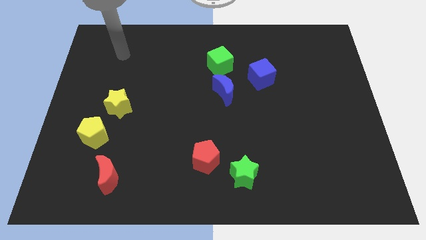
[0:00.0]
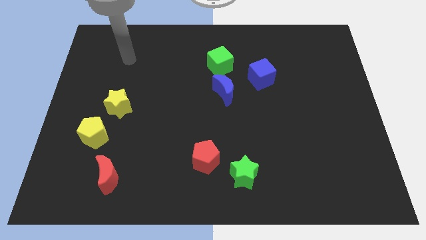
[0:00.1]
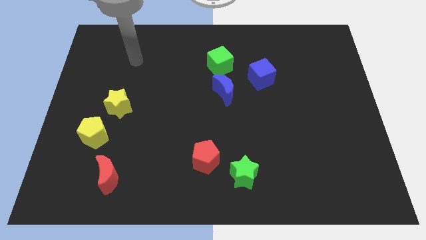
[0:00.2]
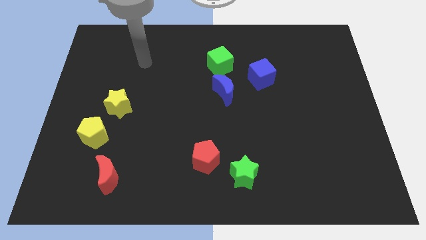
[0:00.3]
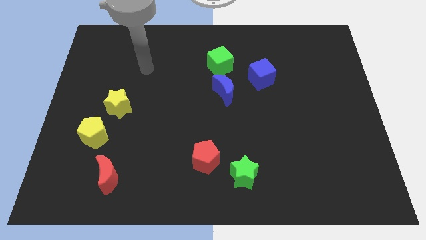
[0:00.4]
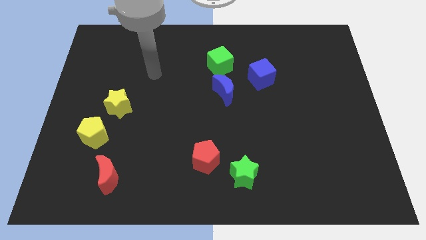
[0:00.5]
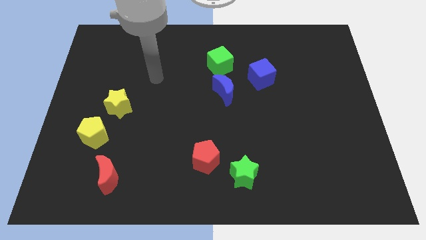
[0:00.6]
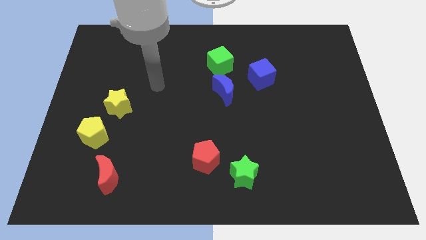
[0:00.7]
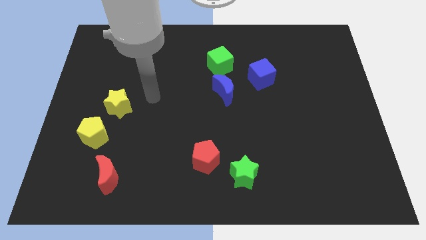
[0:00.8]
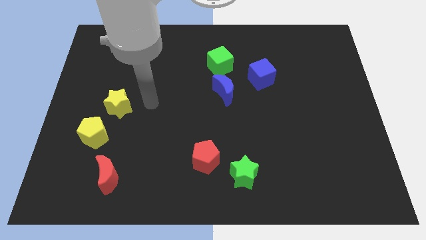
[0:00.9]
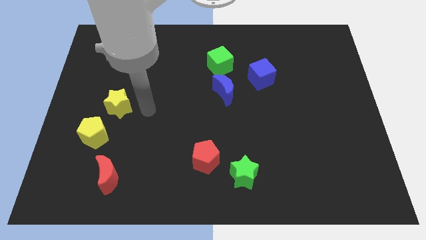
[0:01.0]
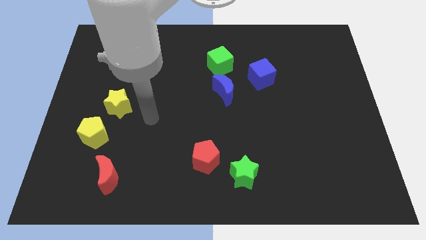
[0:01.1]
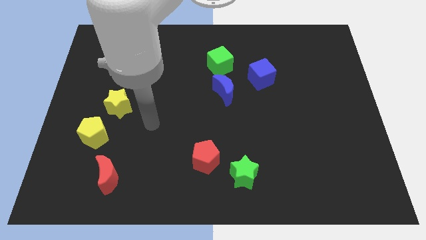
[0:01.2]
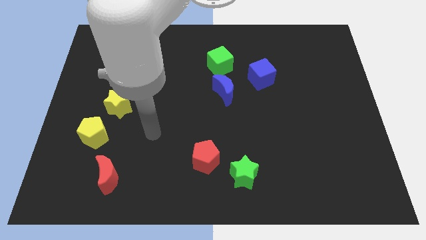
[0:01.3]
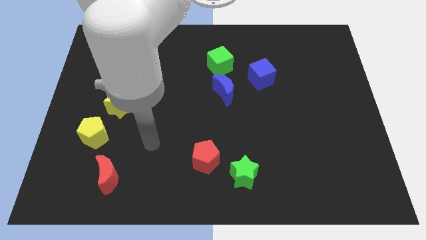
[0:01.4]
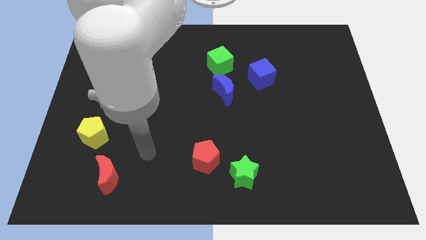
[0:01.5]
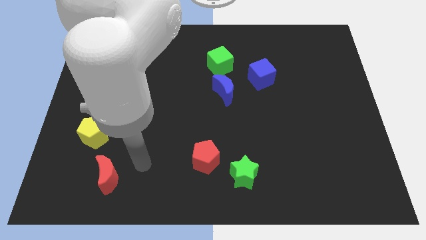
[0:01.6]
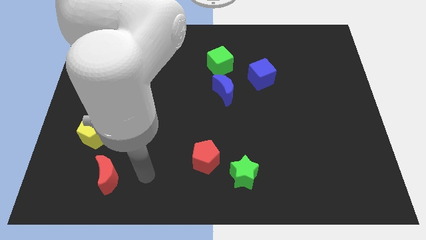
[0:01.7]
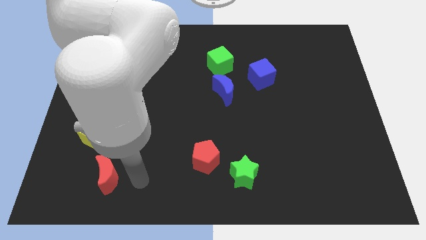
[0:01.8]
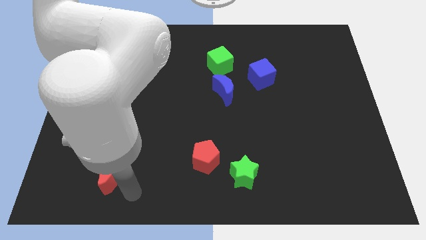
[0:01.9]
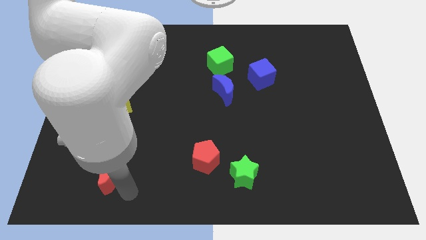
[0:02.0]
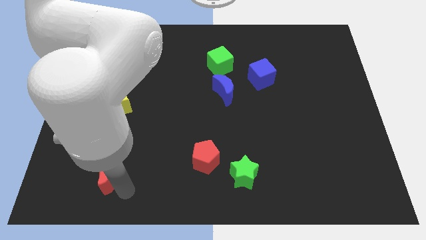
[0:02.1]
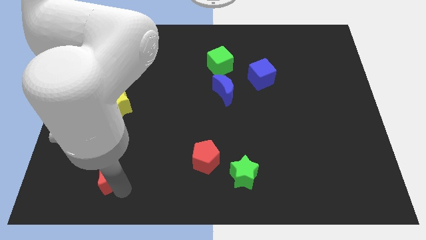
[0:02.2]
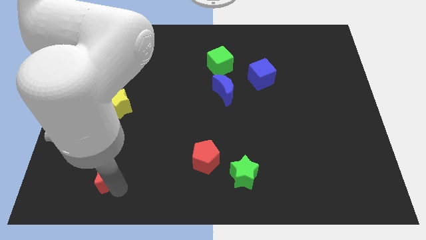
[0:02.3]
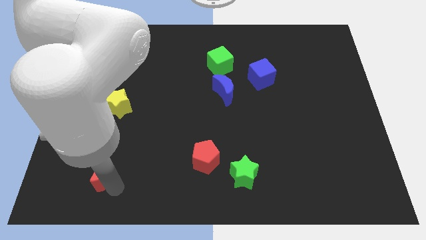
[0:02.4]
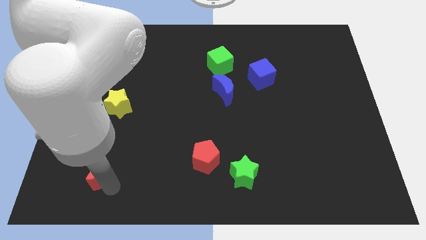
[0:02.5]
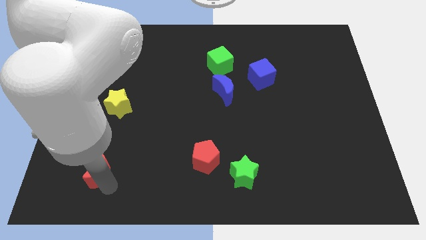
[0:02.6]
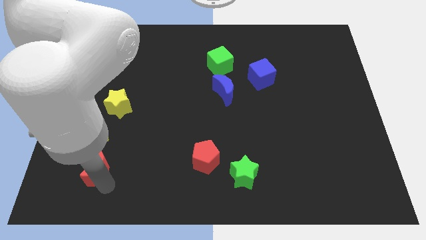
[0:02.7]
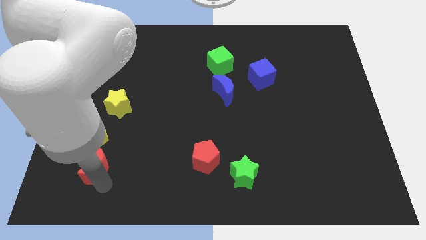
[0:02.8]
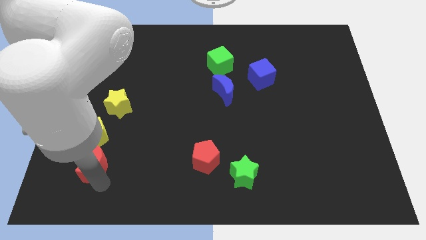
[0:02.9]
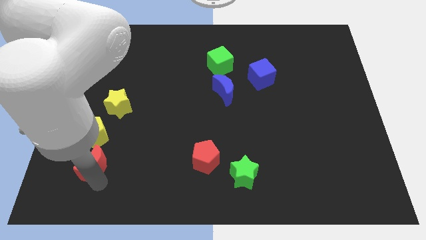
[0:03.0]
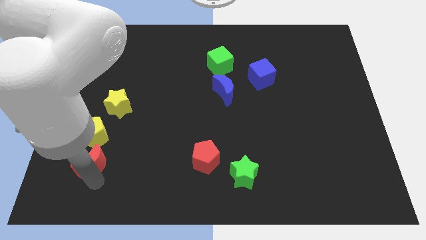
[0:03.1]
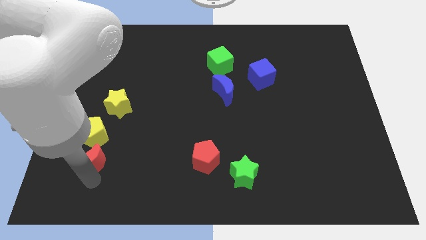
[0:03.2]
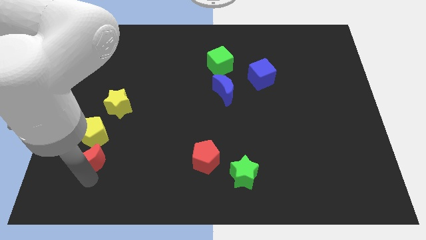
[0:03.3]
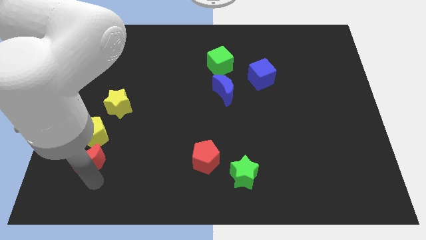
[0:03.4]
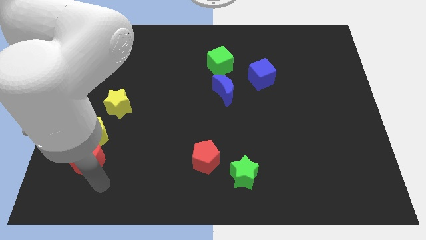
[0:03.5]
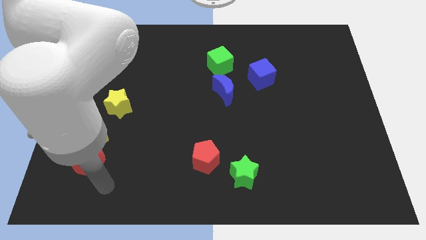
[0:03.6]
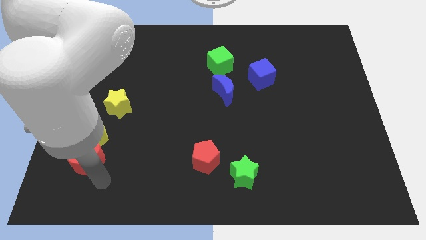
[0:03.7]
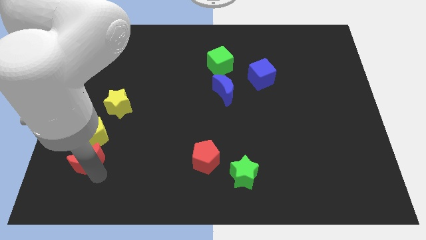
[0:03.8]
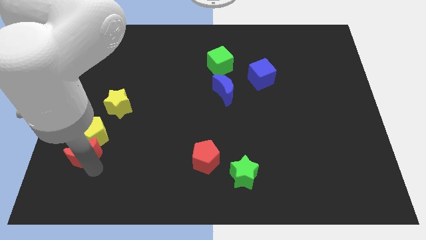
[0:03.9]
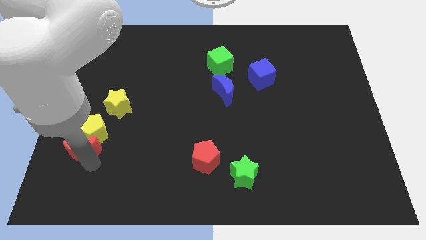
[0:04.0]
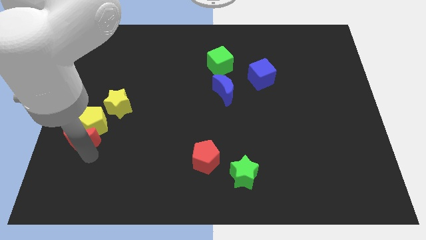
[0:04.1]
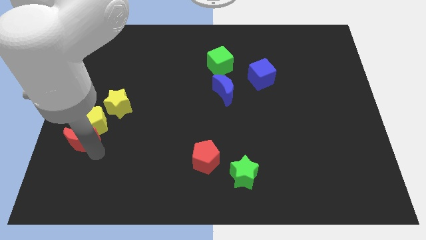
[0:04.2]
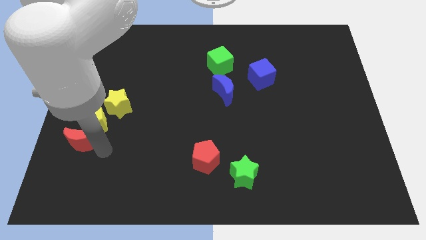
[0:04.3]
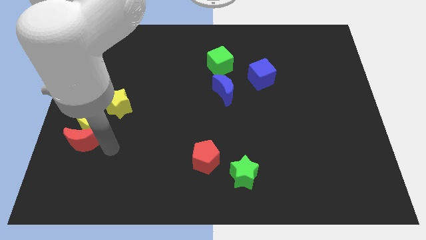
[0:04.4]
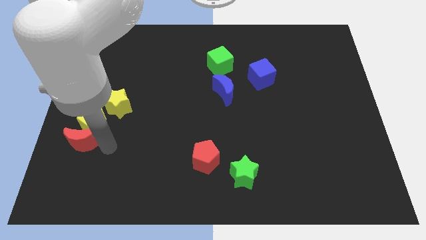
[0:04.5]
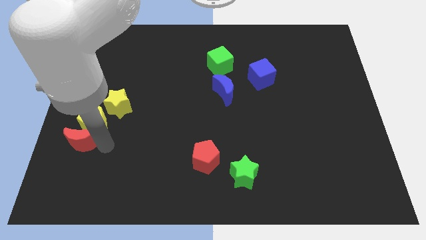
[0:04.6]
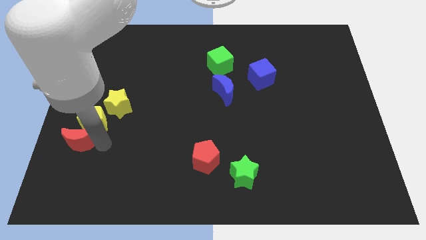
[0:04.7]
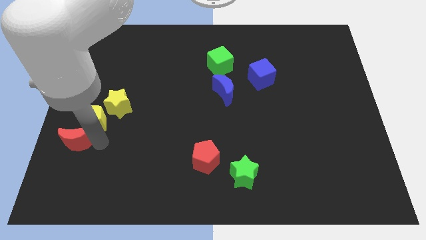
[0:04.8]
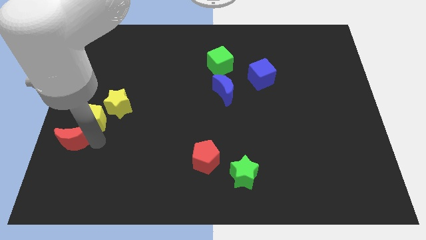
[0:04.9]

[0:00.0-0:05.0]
push the red moon to the left side of the board
